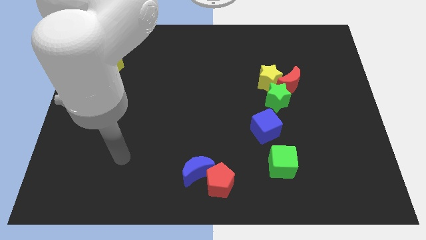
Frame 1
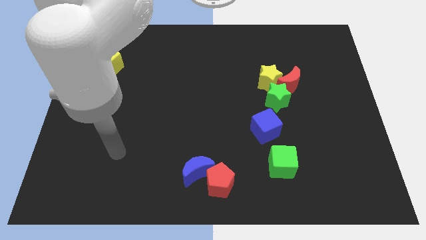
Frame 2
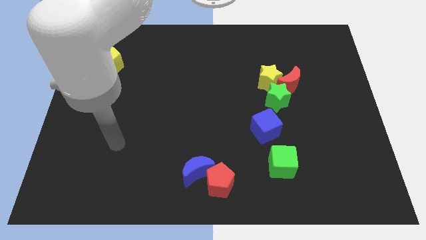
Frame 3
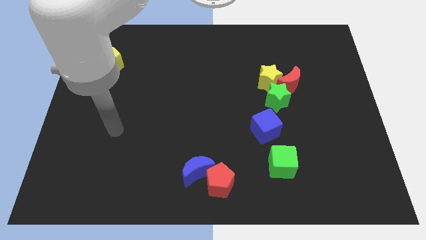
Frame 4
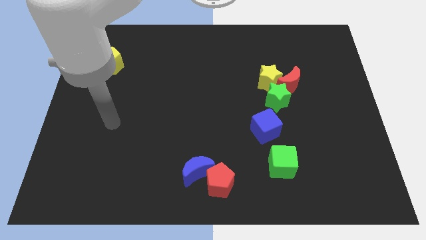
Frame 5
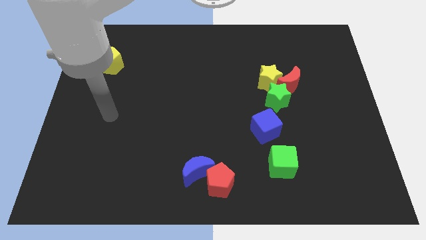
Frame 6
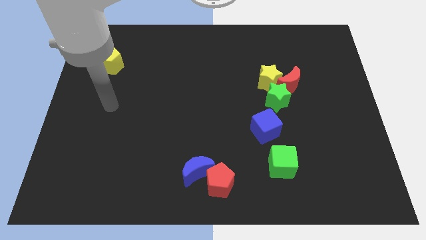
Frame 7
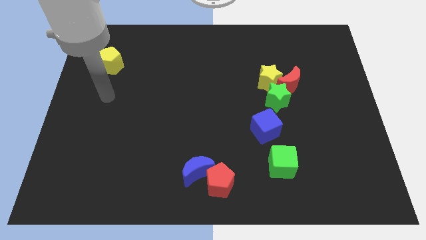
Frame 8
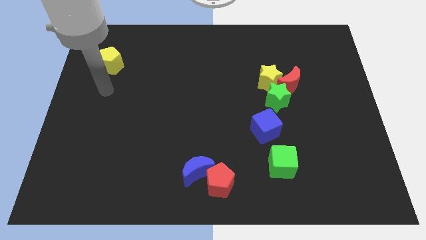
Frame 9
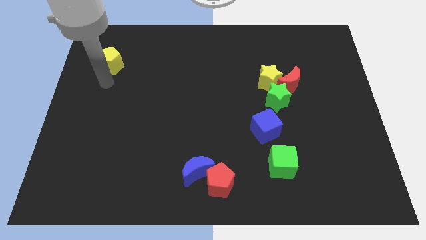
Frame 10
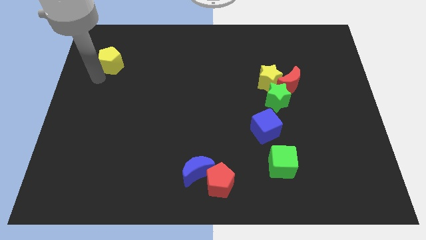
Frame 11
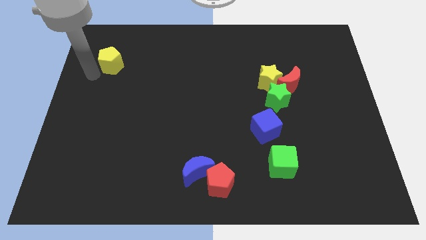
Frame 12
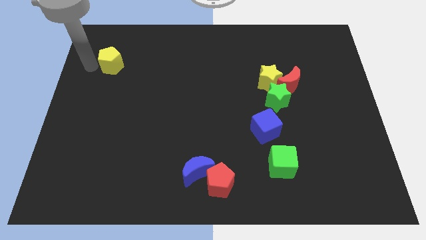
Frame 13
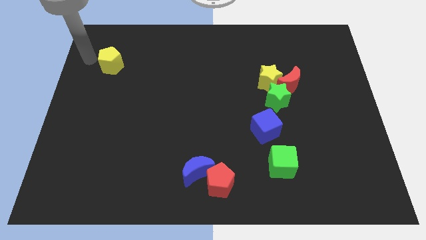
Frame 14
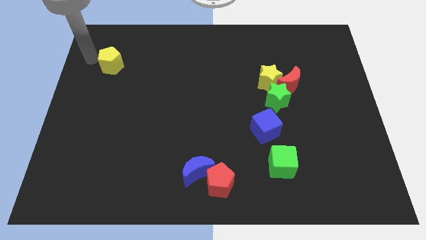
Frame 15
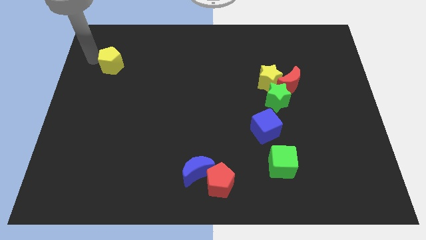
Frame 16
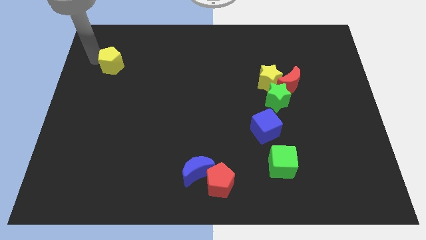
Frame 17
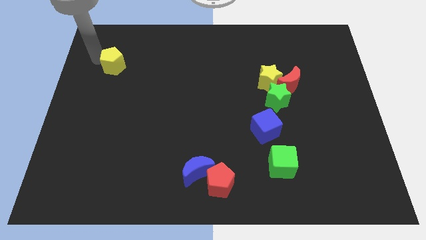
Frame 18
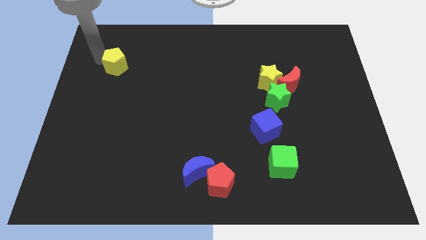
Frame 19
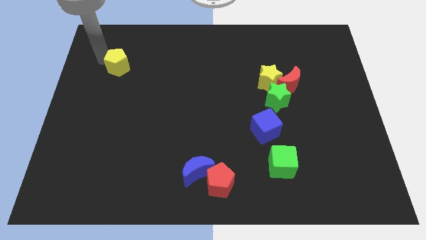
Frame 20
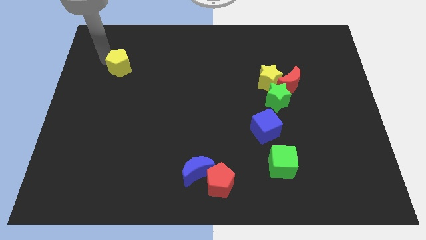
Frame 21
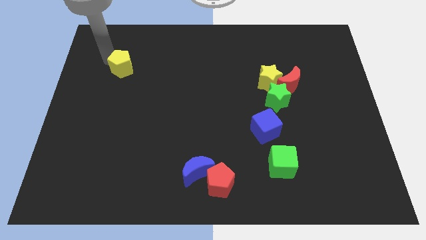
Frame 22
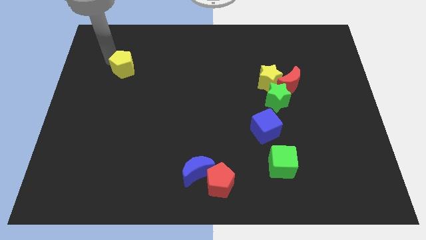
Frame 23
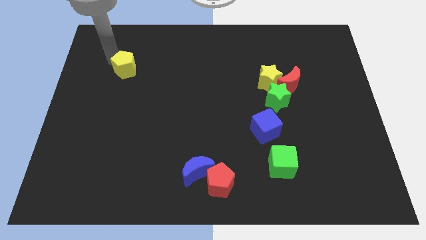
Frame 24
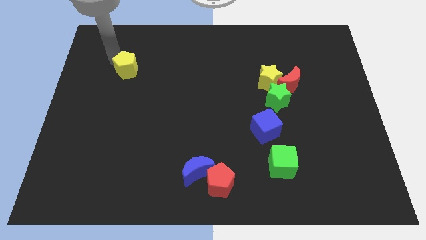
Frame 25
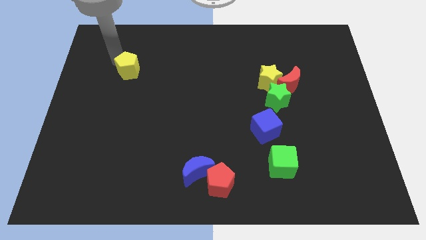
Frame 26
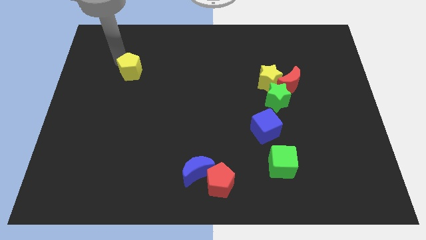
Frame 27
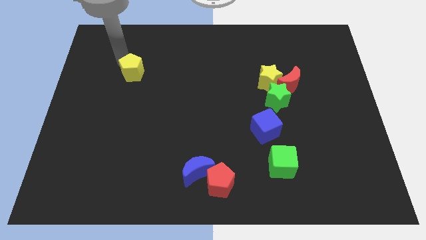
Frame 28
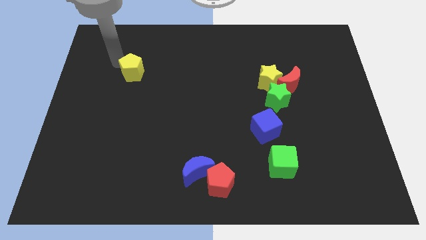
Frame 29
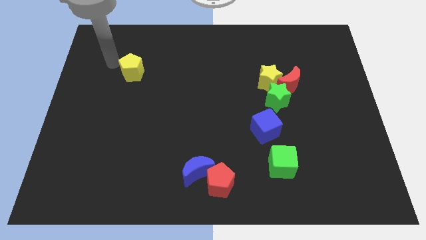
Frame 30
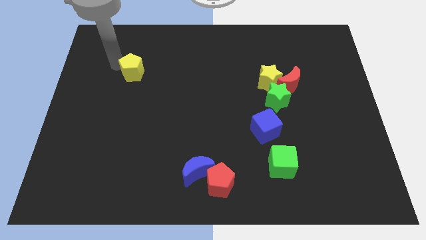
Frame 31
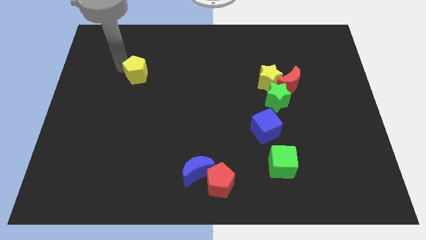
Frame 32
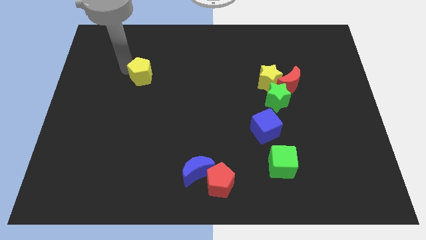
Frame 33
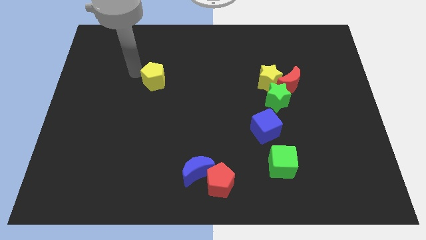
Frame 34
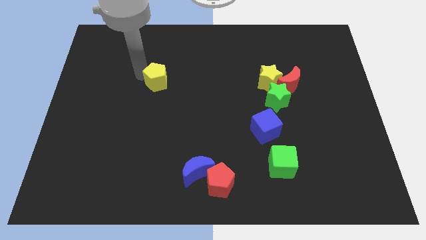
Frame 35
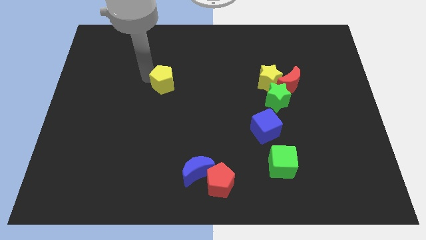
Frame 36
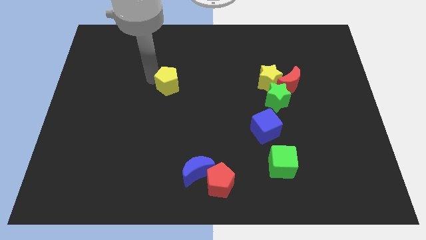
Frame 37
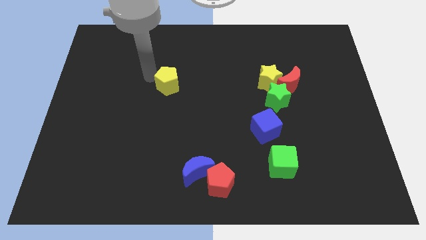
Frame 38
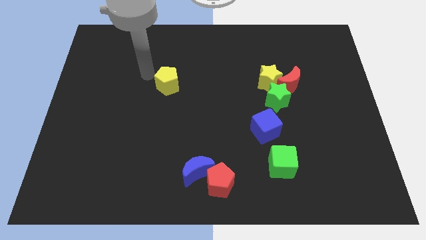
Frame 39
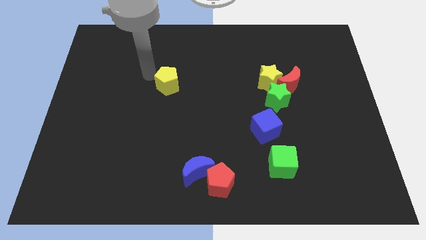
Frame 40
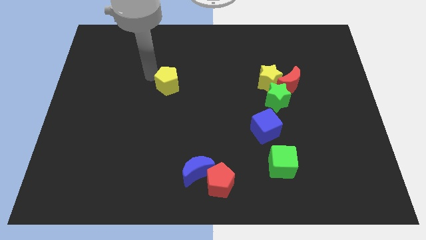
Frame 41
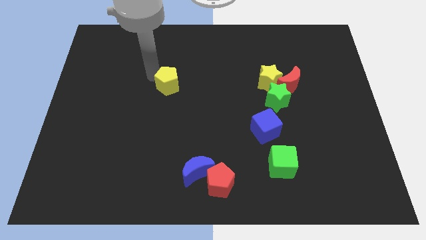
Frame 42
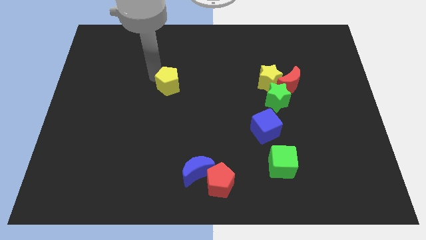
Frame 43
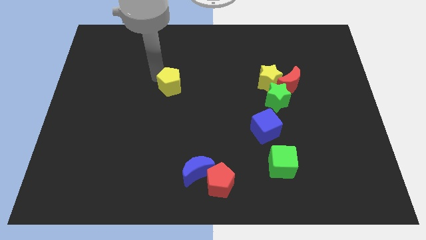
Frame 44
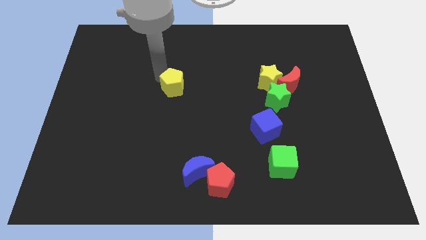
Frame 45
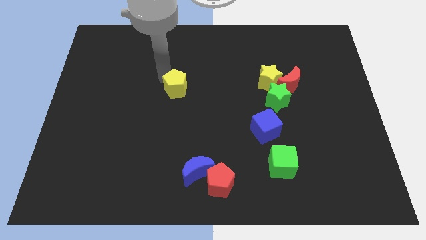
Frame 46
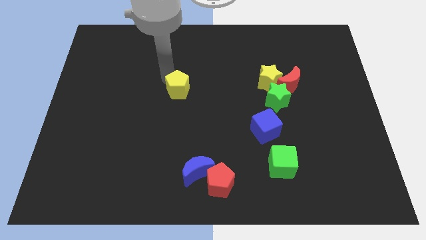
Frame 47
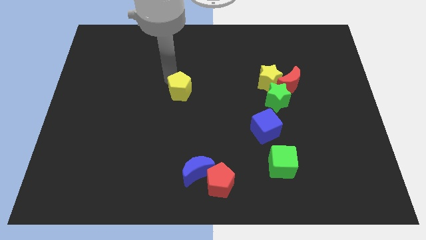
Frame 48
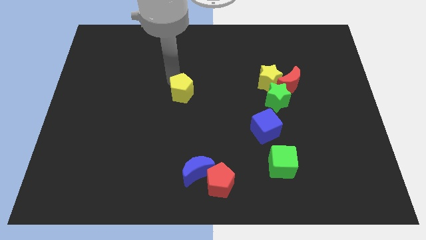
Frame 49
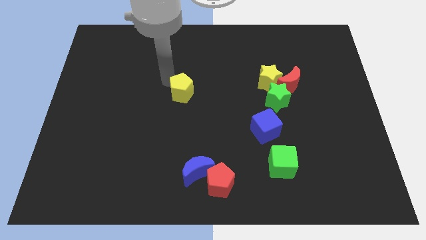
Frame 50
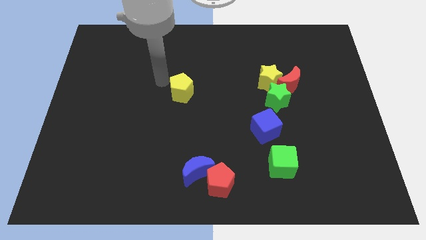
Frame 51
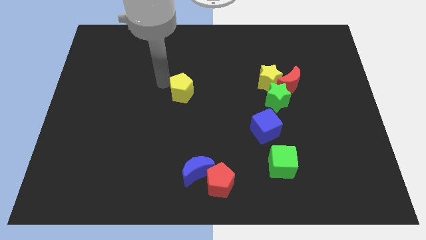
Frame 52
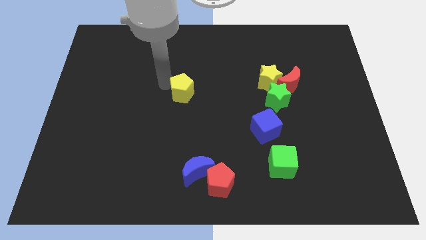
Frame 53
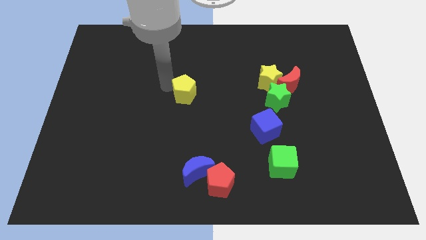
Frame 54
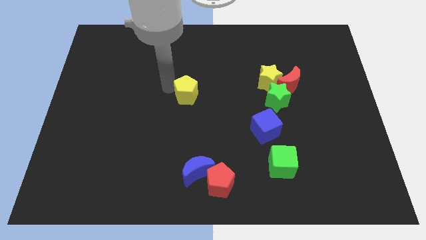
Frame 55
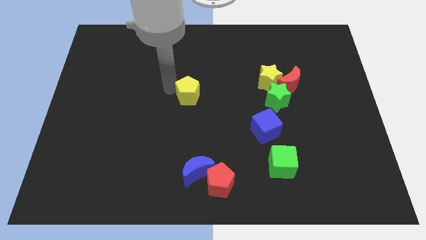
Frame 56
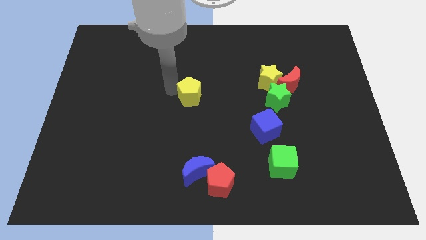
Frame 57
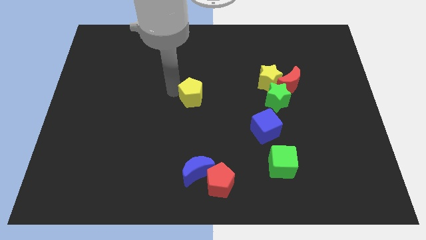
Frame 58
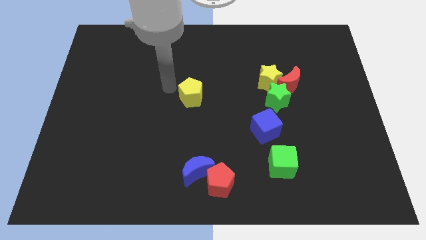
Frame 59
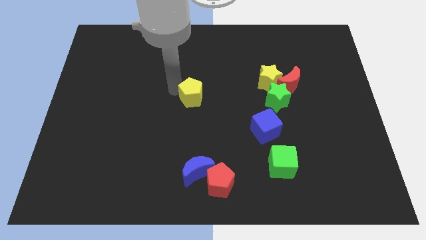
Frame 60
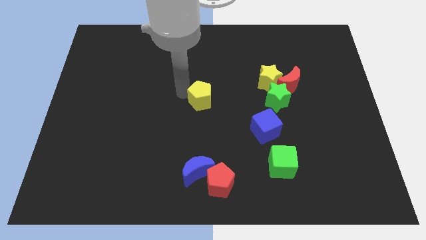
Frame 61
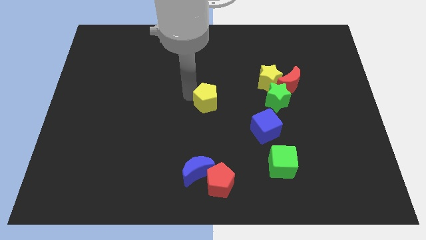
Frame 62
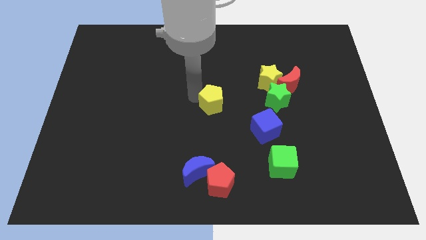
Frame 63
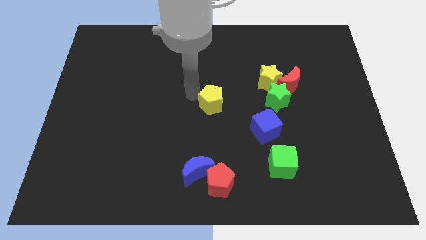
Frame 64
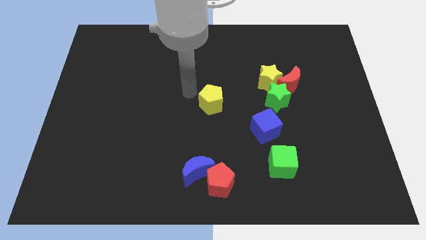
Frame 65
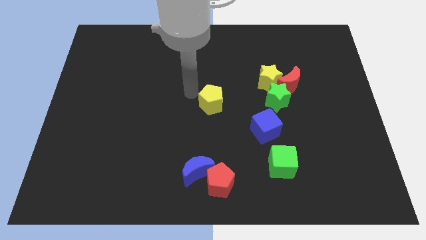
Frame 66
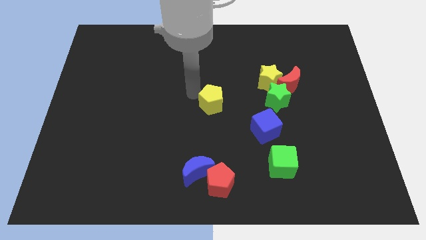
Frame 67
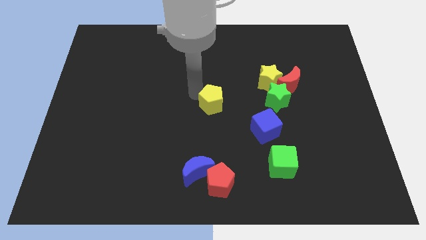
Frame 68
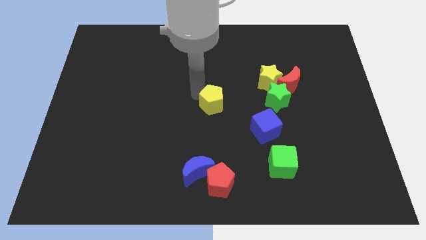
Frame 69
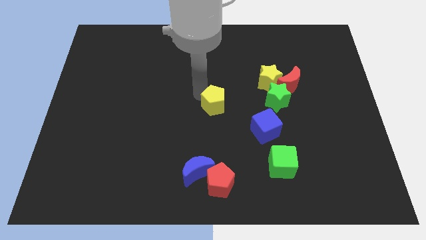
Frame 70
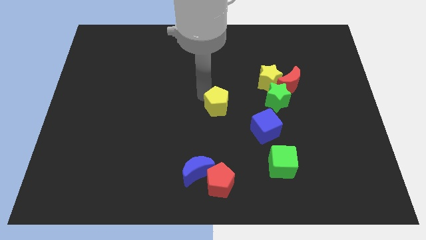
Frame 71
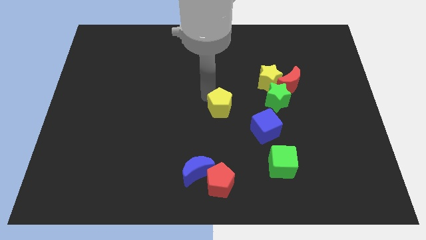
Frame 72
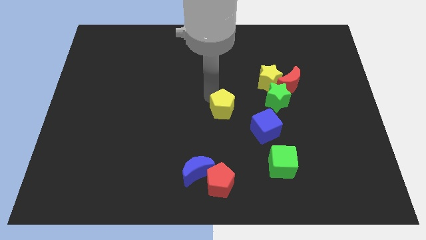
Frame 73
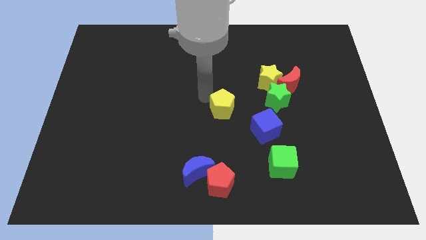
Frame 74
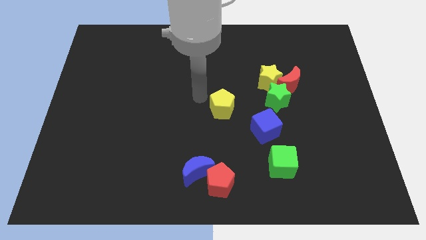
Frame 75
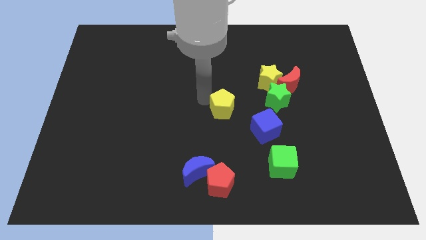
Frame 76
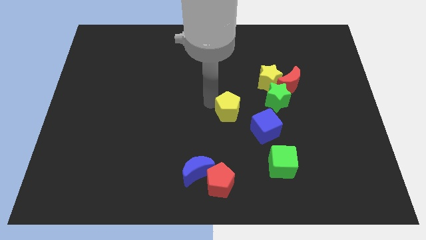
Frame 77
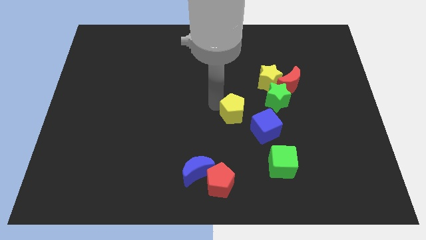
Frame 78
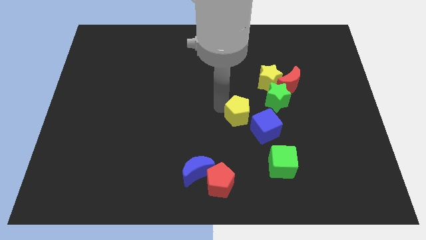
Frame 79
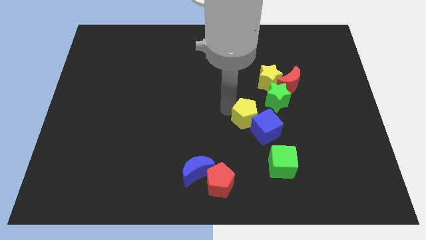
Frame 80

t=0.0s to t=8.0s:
put the yellow pentagon to the blue cube
